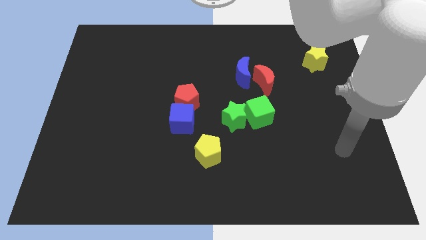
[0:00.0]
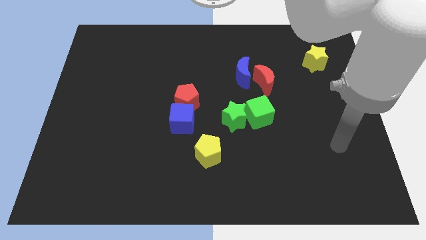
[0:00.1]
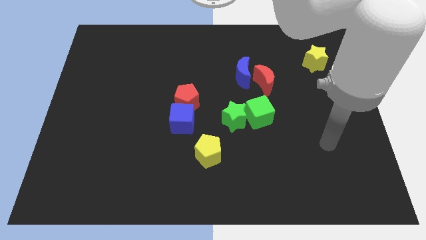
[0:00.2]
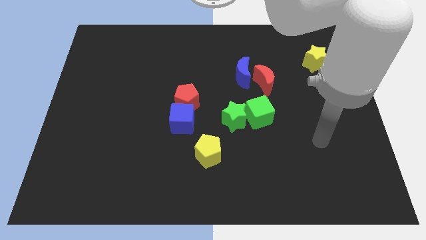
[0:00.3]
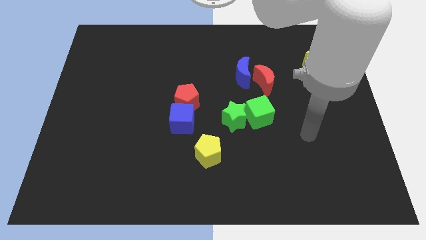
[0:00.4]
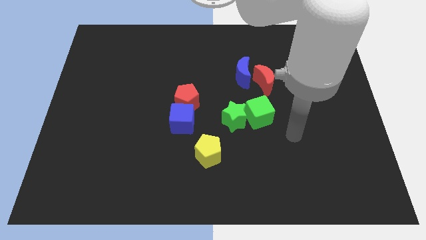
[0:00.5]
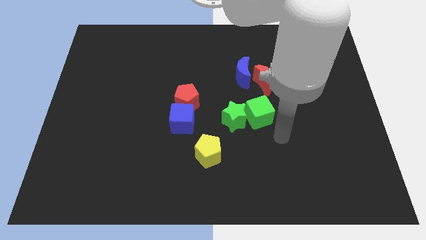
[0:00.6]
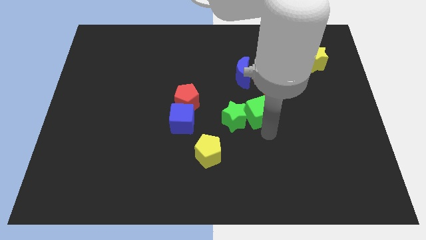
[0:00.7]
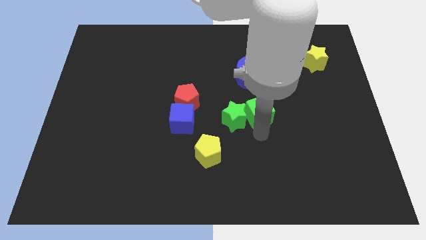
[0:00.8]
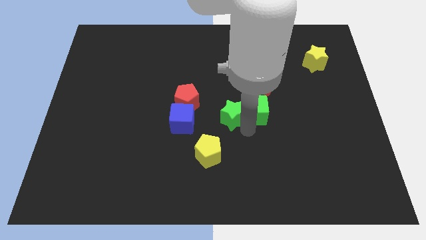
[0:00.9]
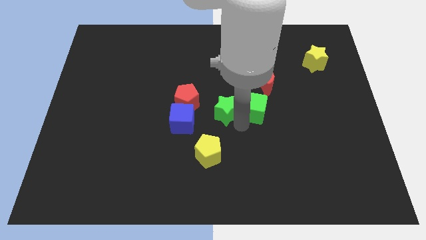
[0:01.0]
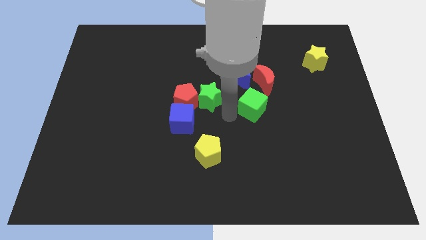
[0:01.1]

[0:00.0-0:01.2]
pull the green cube apart from the green star

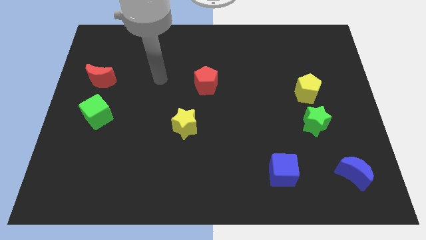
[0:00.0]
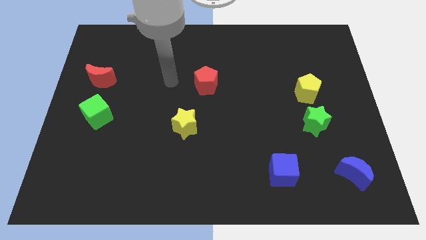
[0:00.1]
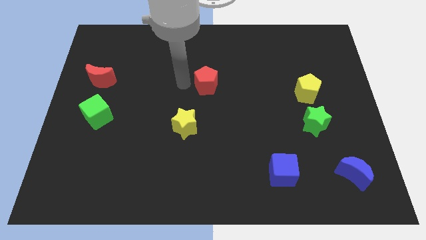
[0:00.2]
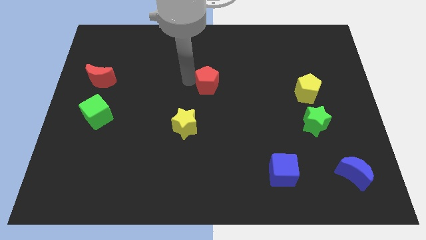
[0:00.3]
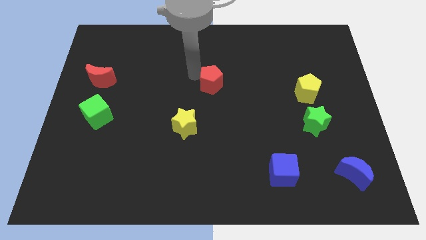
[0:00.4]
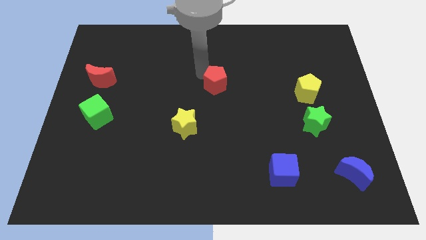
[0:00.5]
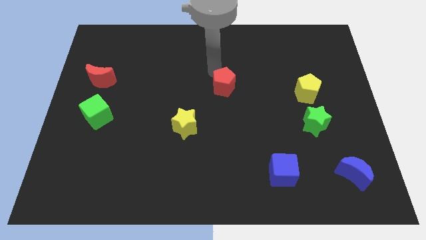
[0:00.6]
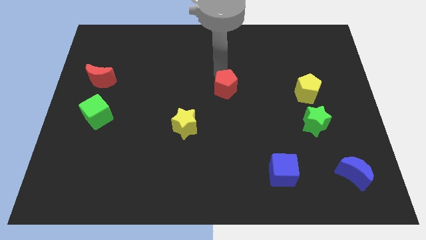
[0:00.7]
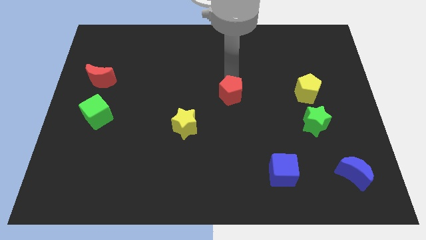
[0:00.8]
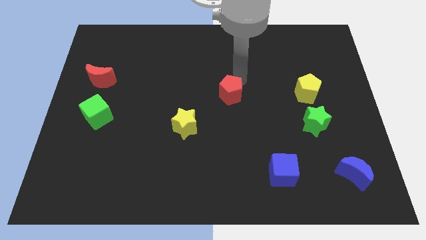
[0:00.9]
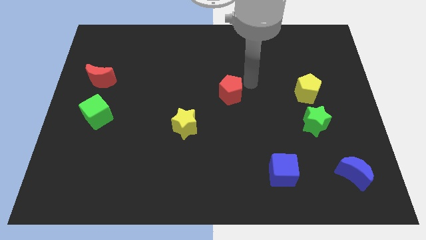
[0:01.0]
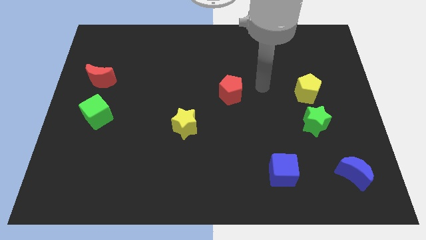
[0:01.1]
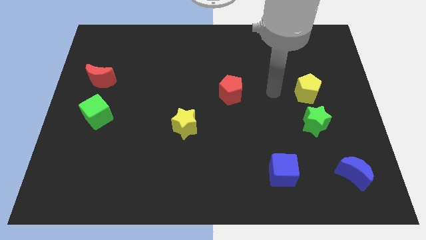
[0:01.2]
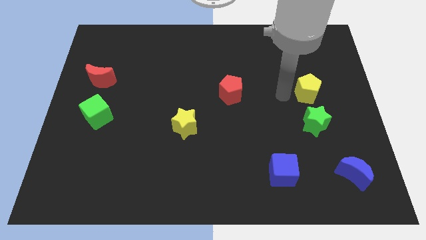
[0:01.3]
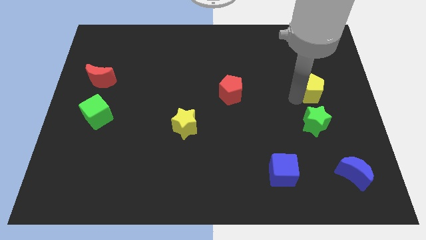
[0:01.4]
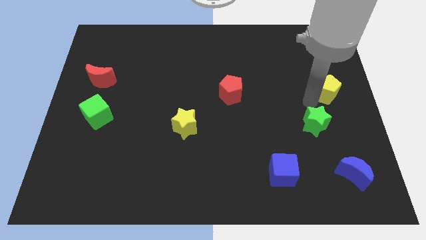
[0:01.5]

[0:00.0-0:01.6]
move the green star away from the yellow pentagon

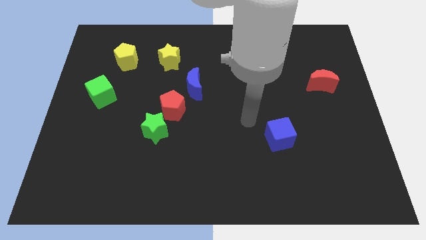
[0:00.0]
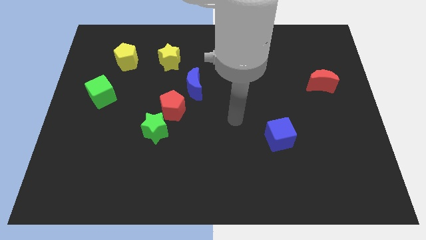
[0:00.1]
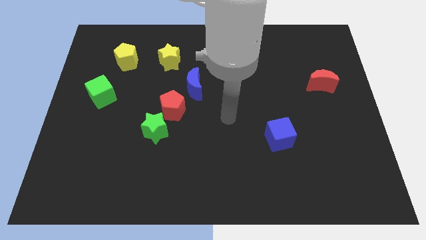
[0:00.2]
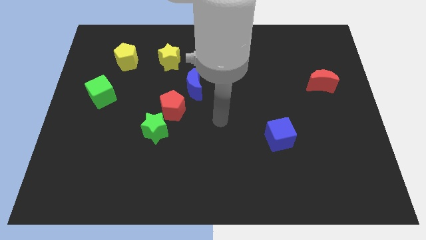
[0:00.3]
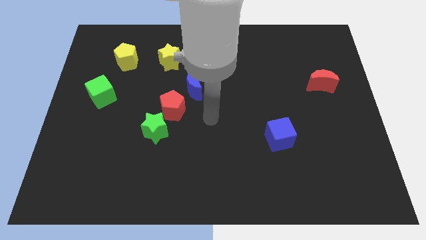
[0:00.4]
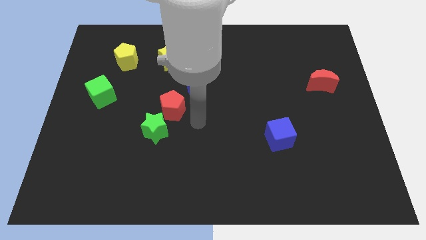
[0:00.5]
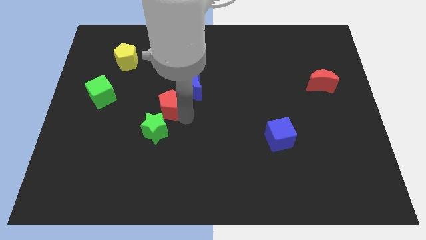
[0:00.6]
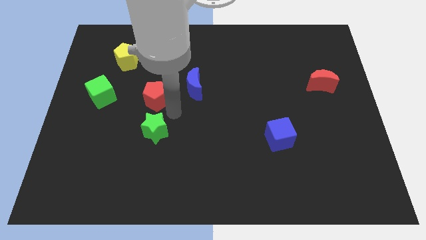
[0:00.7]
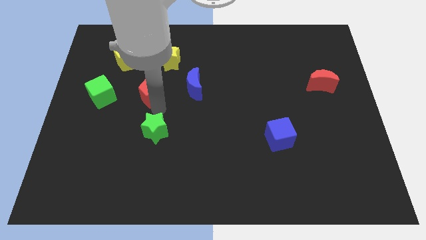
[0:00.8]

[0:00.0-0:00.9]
separate the green star from the red pentagon

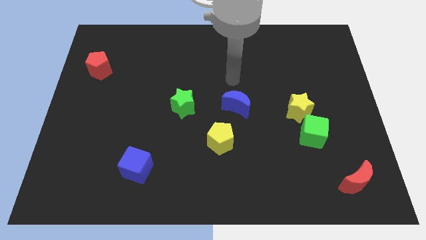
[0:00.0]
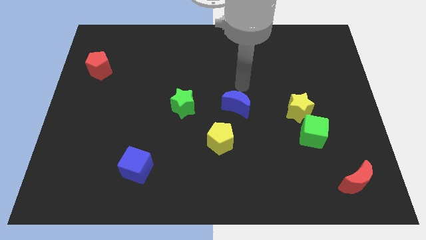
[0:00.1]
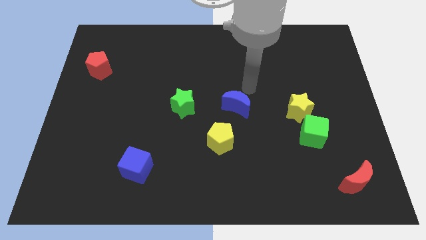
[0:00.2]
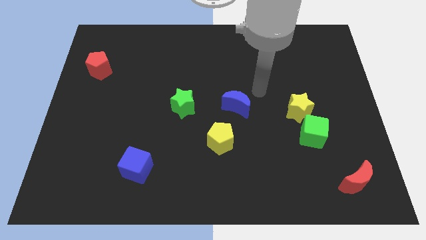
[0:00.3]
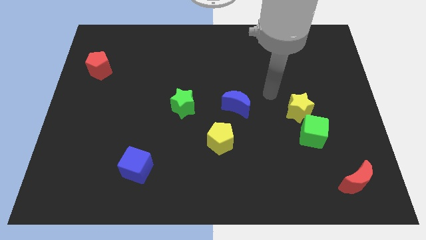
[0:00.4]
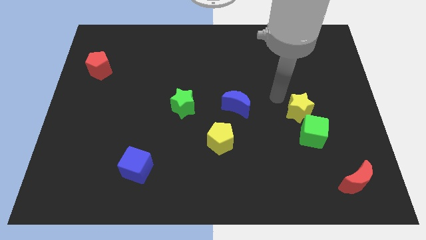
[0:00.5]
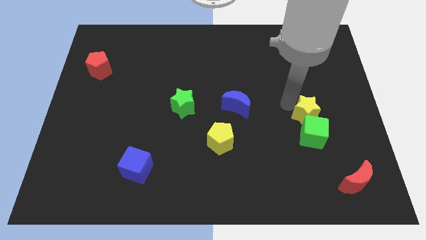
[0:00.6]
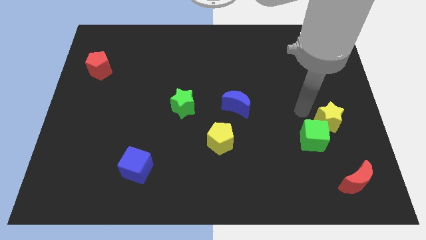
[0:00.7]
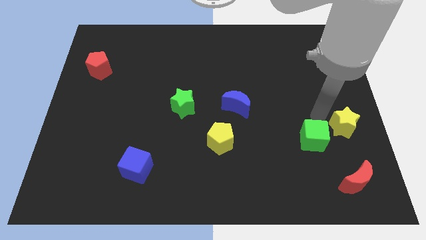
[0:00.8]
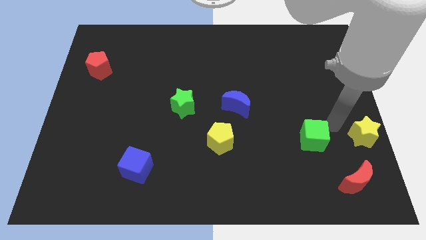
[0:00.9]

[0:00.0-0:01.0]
pull the green cube apart from the yellow star

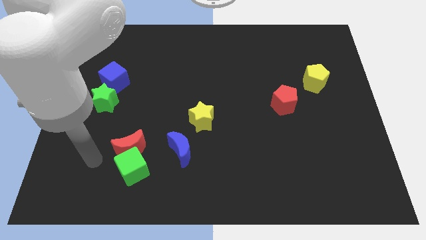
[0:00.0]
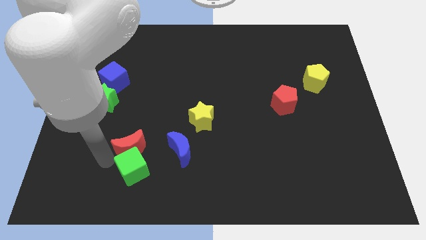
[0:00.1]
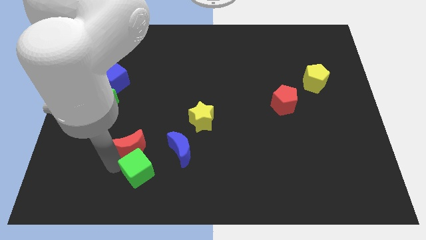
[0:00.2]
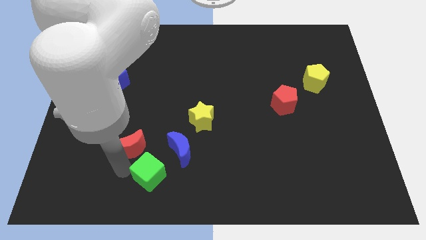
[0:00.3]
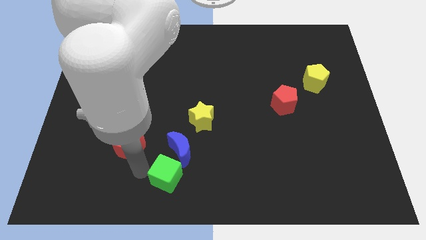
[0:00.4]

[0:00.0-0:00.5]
move the red moon away from the green cube

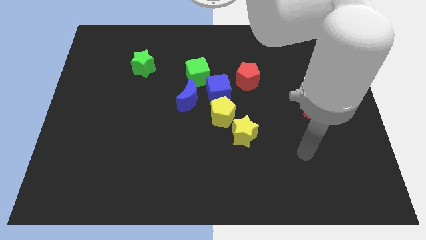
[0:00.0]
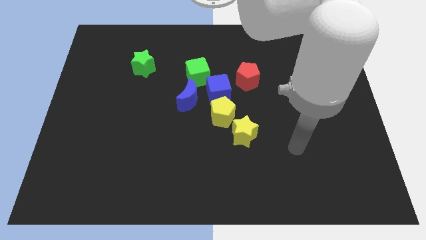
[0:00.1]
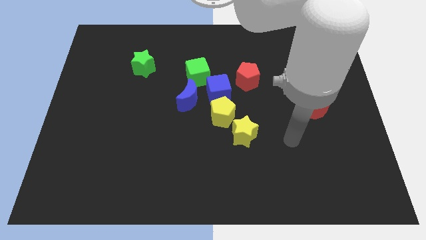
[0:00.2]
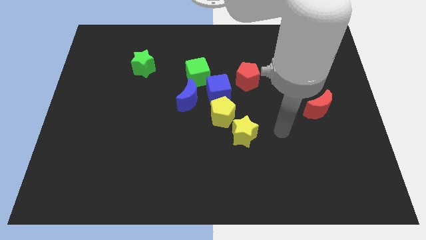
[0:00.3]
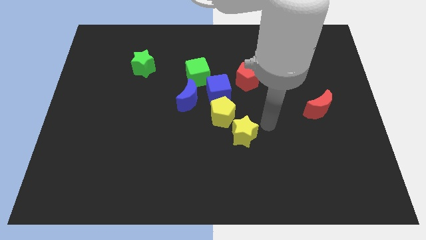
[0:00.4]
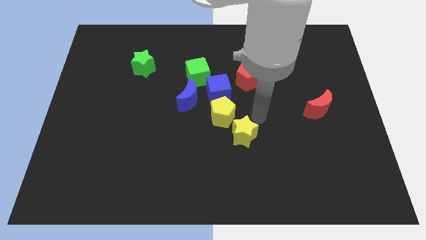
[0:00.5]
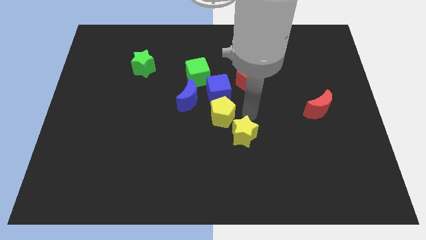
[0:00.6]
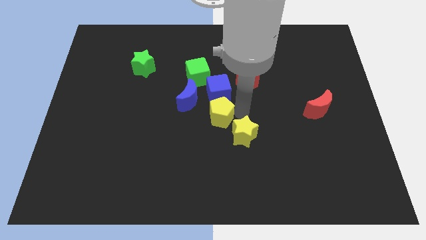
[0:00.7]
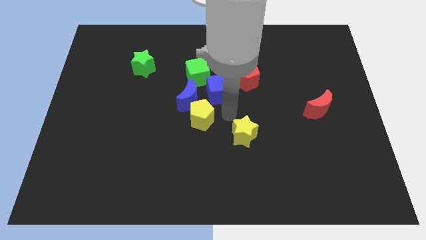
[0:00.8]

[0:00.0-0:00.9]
separate the yellow star from the yellow pentagon

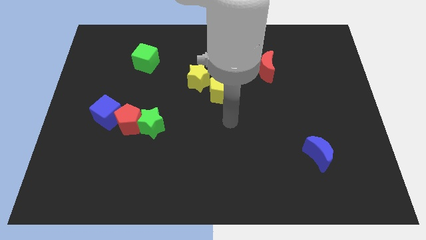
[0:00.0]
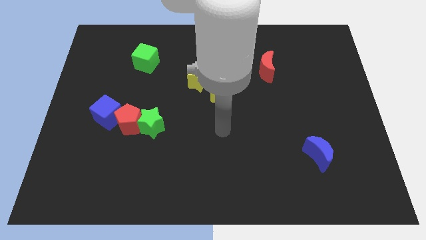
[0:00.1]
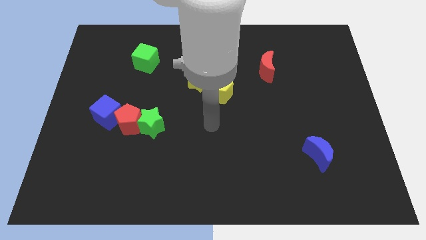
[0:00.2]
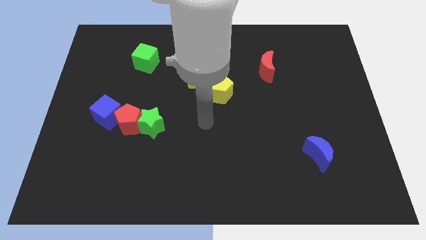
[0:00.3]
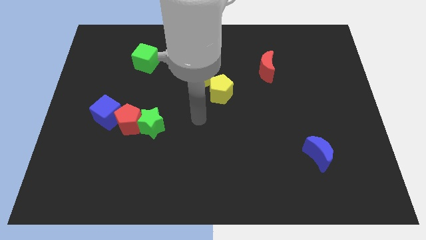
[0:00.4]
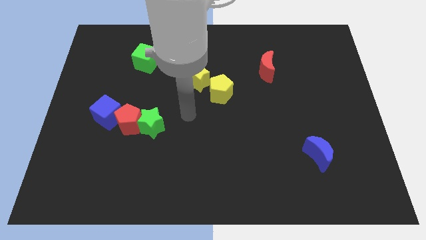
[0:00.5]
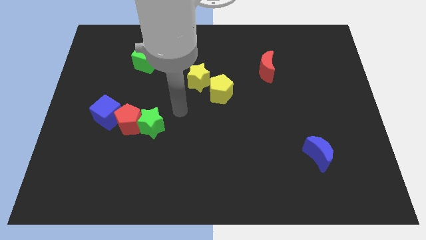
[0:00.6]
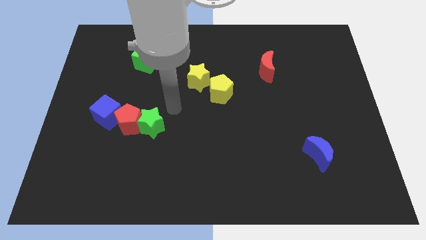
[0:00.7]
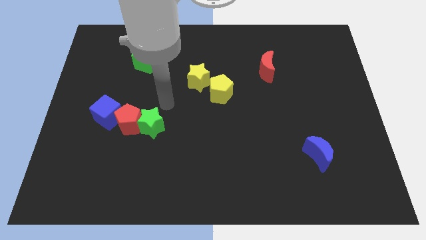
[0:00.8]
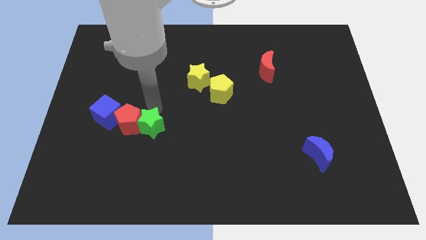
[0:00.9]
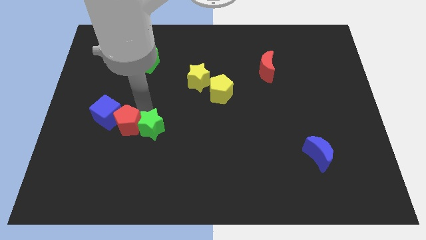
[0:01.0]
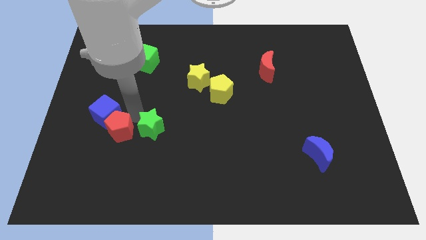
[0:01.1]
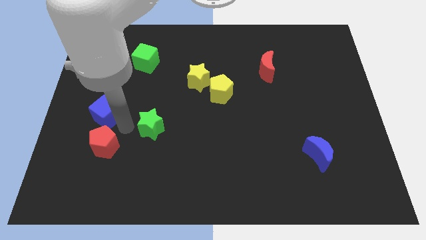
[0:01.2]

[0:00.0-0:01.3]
pull the green star apart from the red pentagon

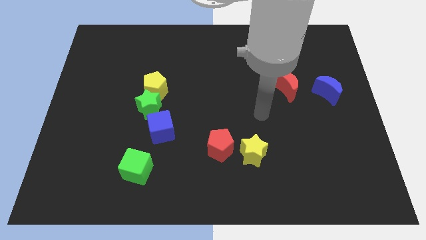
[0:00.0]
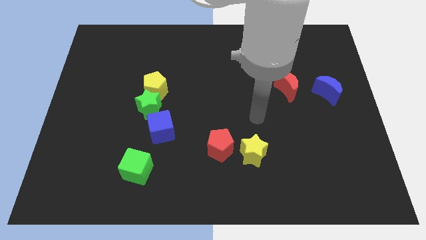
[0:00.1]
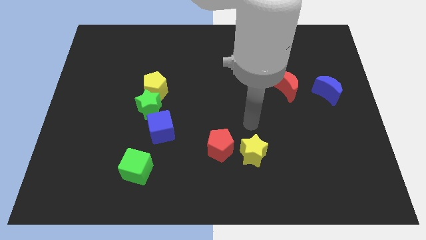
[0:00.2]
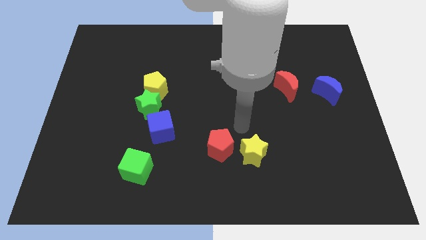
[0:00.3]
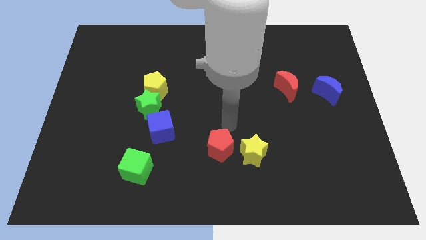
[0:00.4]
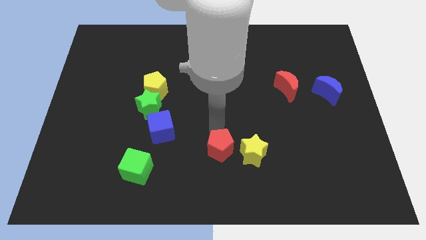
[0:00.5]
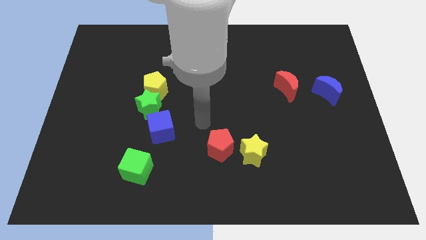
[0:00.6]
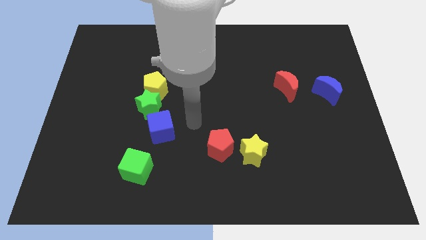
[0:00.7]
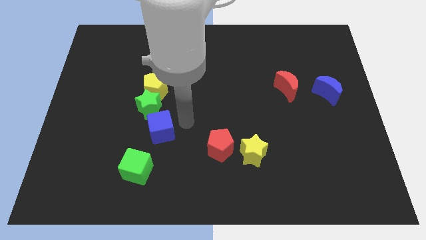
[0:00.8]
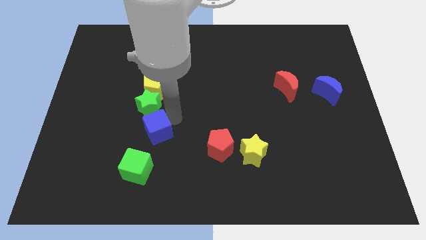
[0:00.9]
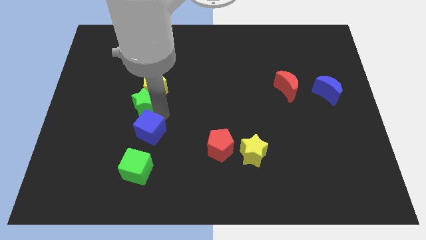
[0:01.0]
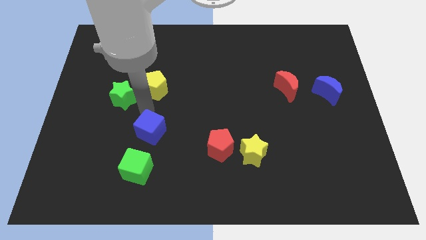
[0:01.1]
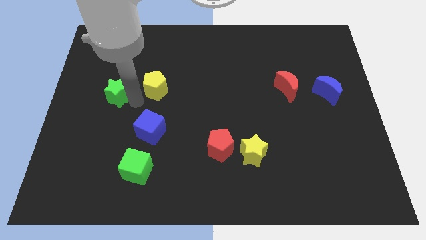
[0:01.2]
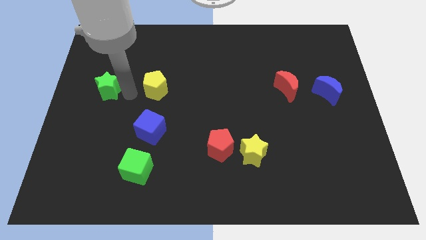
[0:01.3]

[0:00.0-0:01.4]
separate the yellow pentagon from the green star

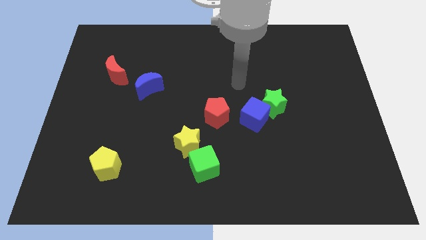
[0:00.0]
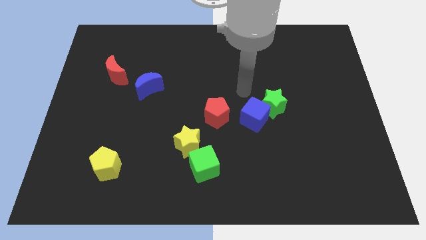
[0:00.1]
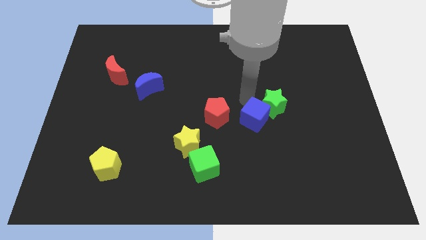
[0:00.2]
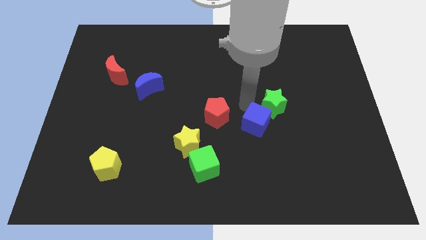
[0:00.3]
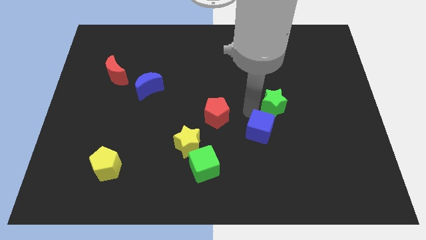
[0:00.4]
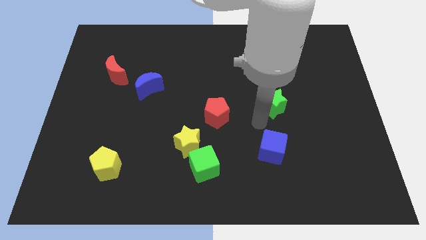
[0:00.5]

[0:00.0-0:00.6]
move the green star away from the blue cube
